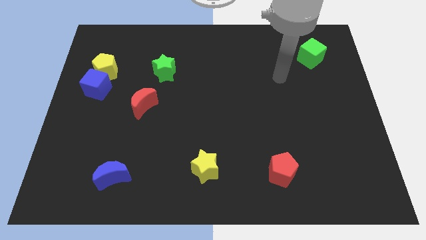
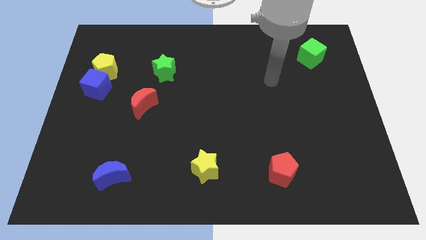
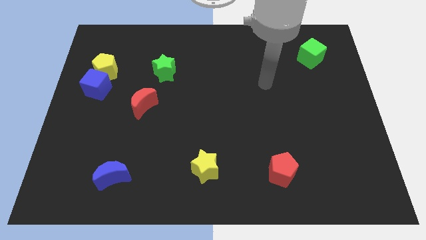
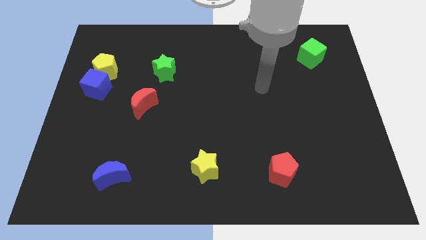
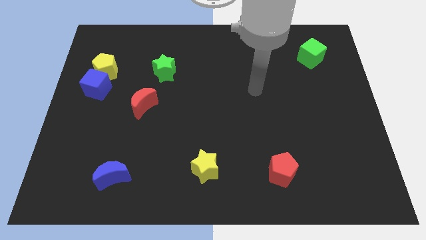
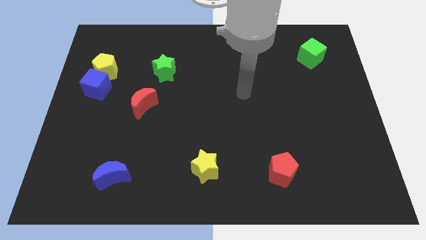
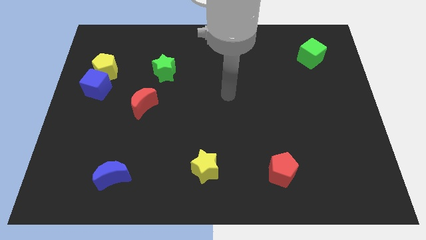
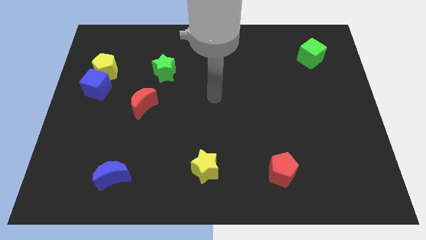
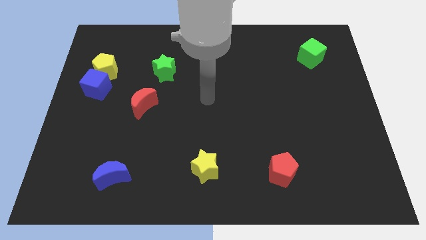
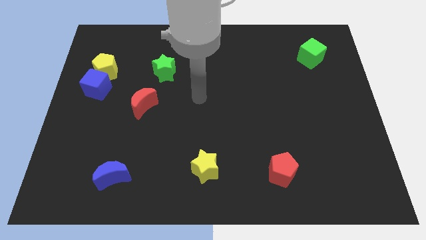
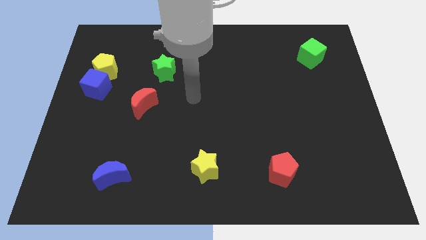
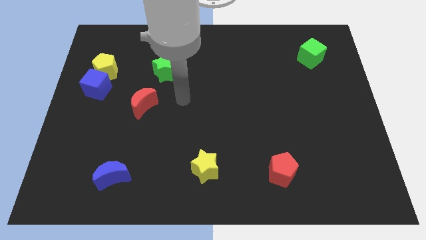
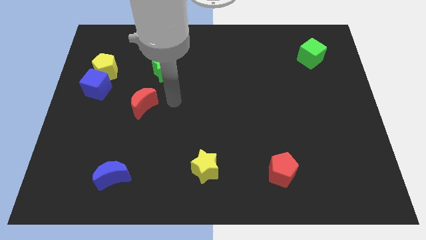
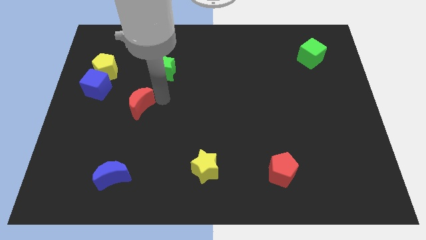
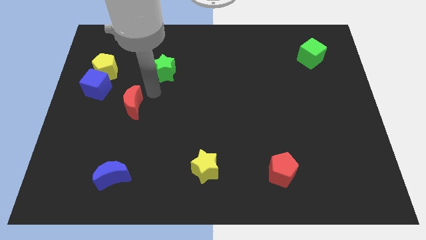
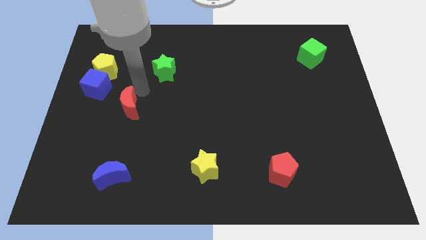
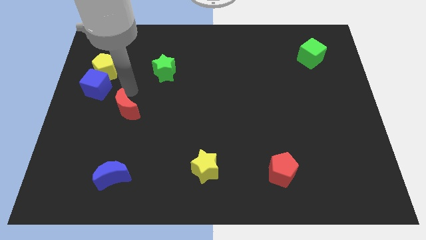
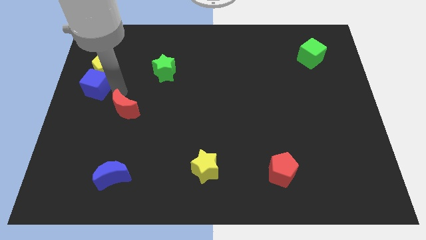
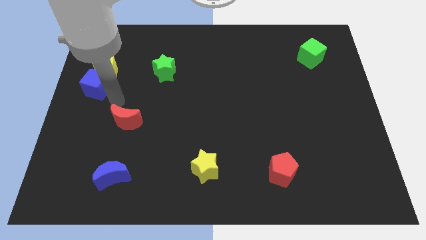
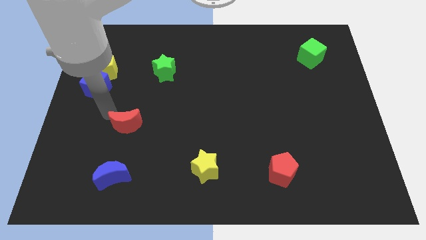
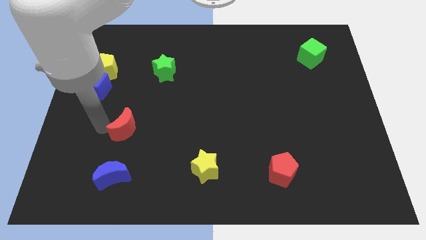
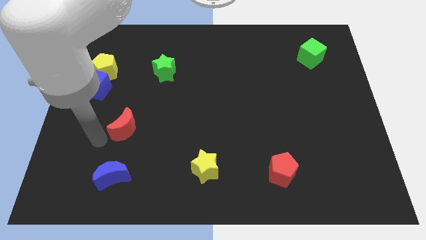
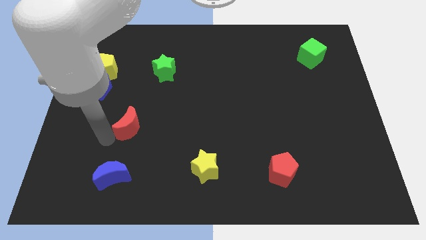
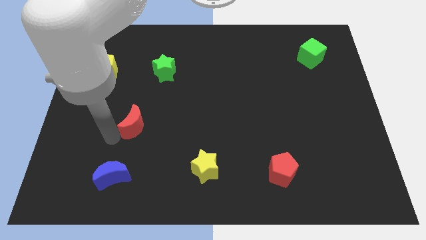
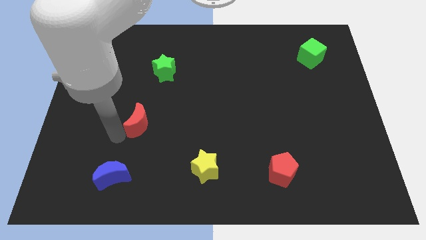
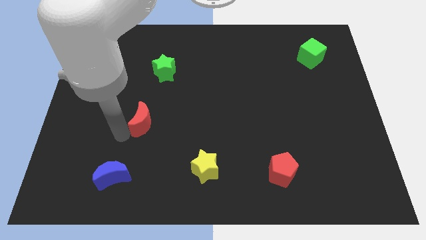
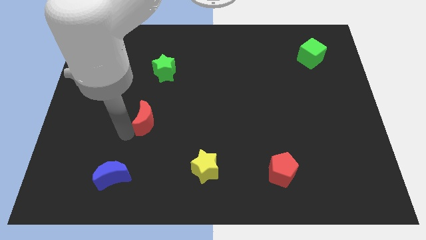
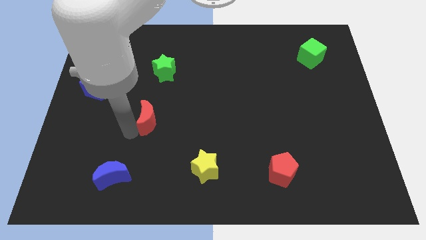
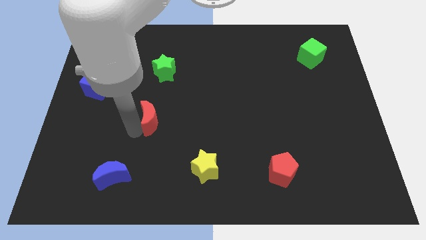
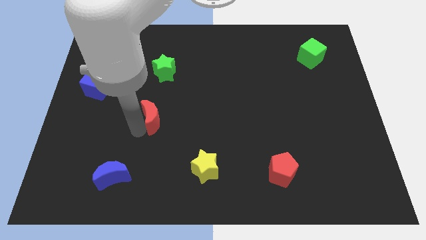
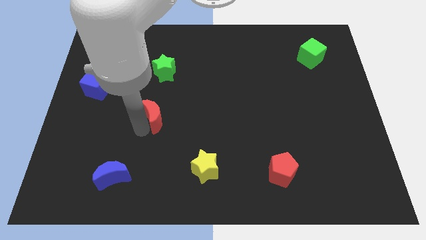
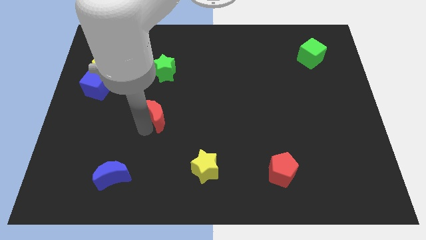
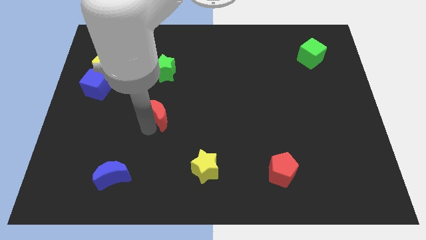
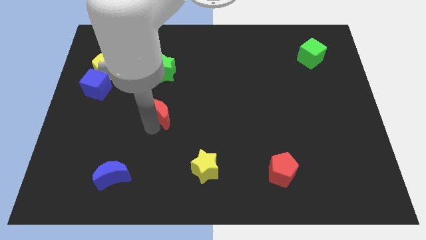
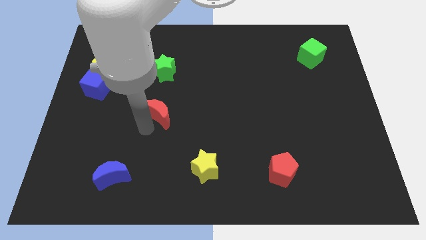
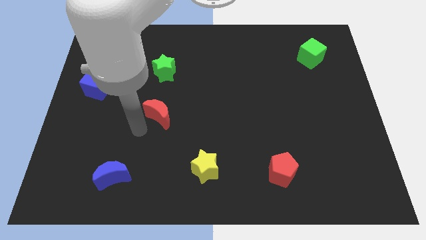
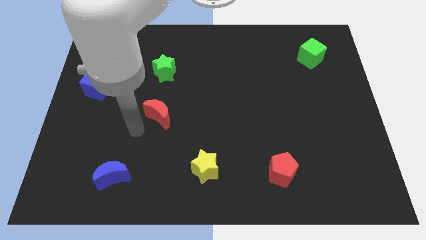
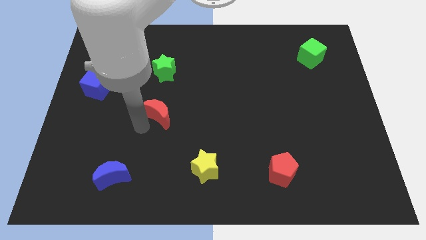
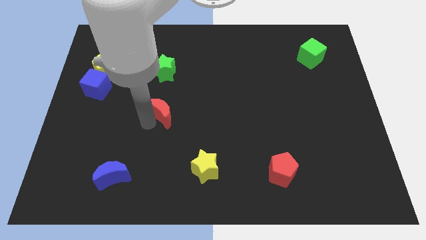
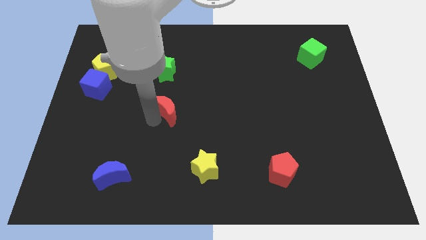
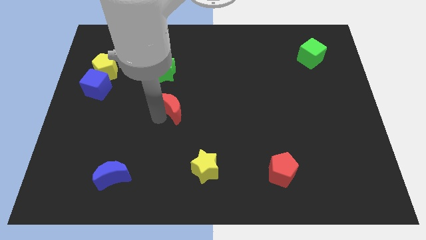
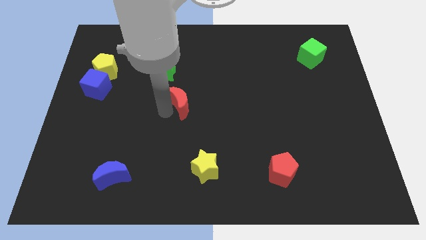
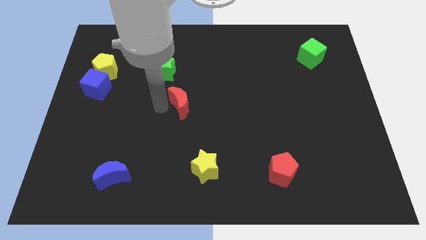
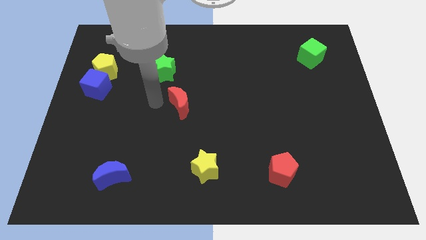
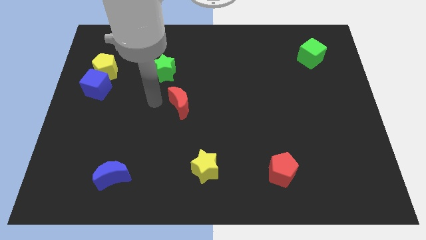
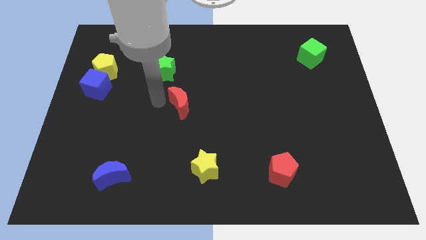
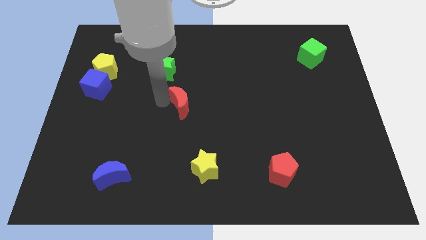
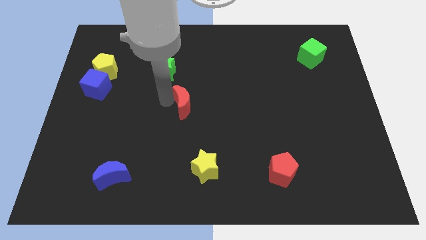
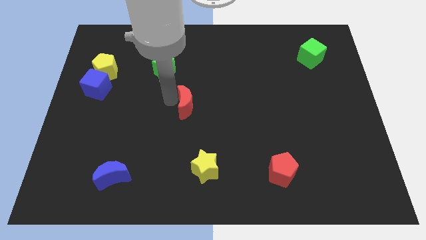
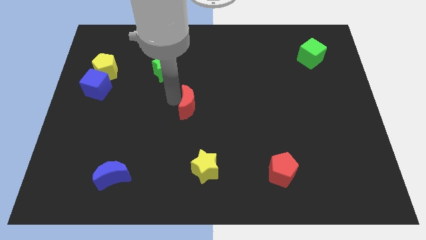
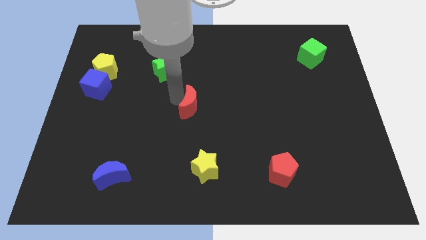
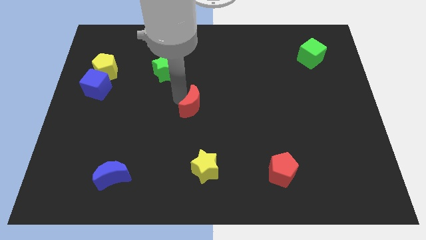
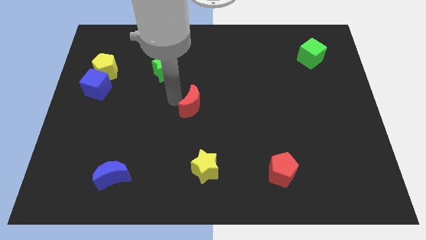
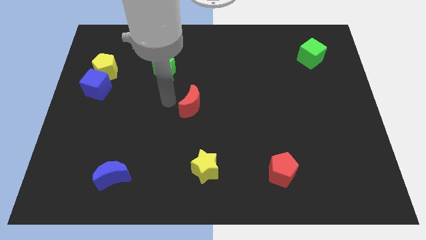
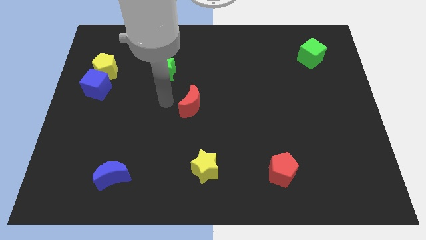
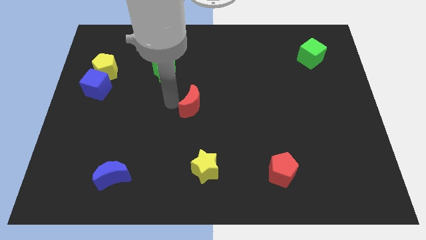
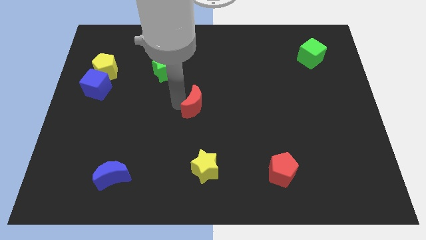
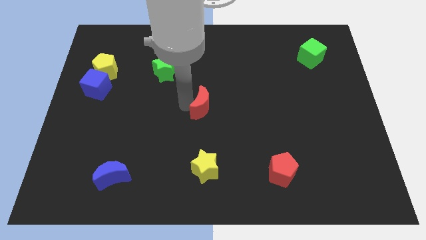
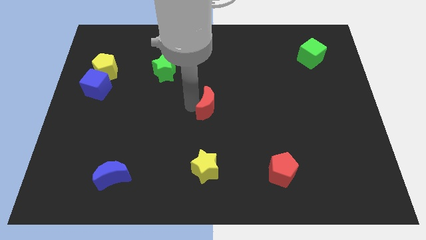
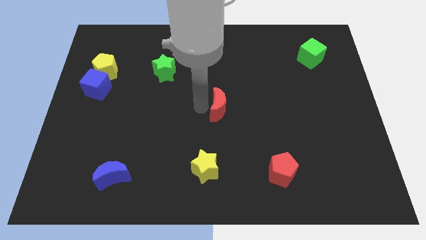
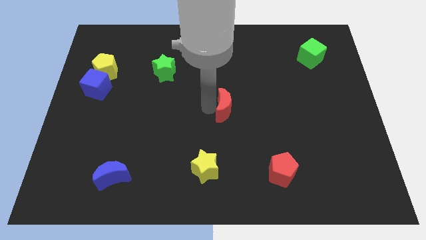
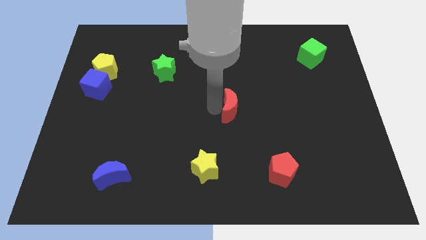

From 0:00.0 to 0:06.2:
push the red moon right

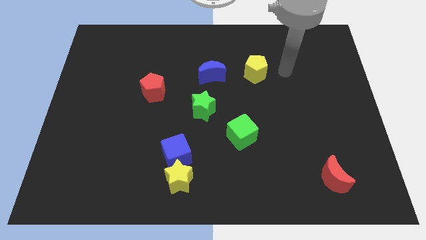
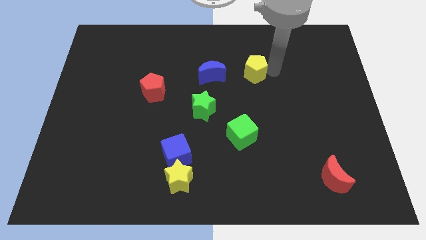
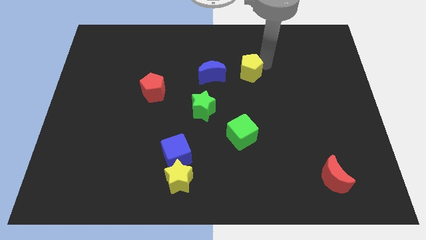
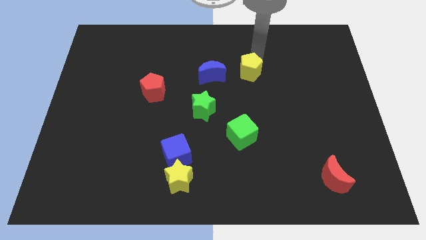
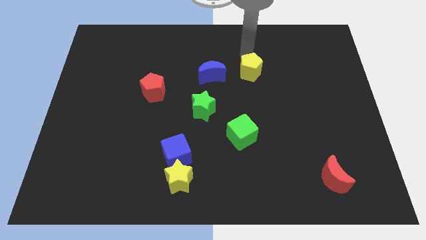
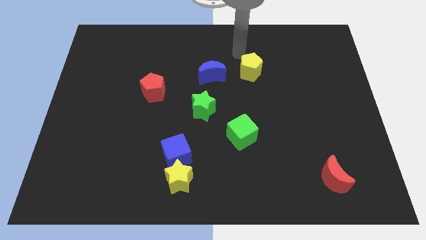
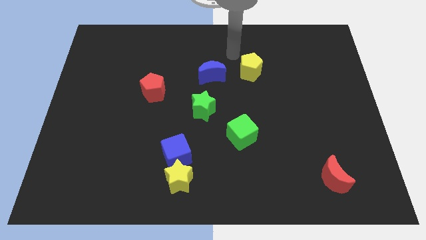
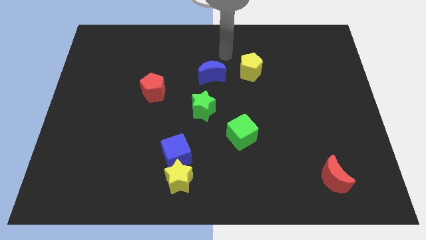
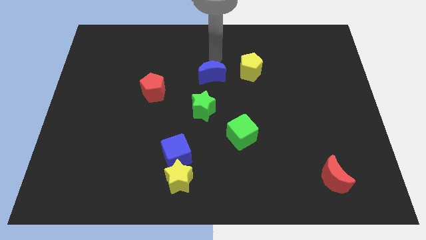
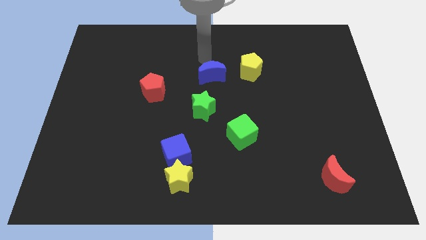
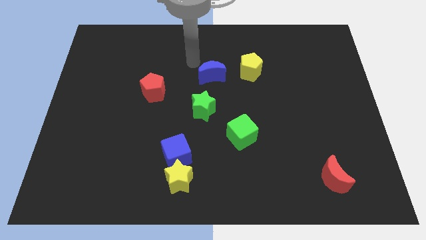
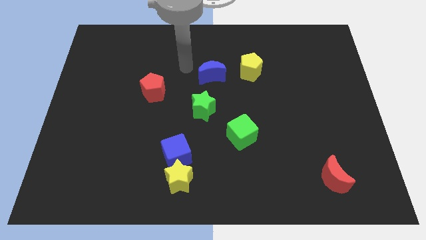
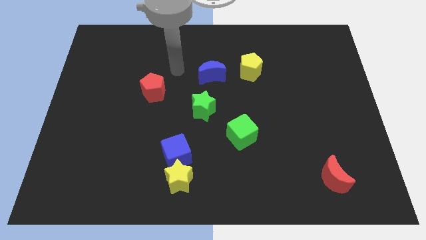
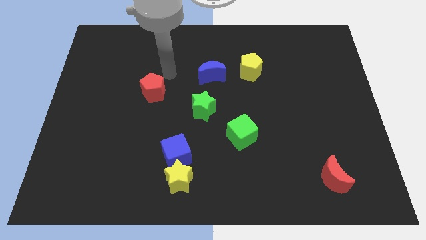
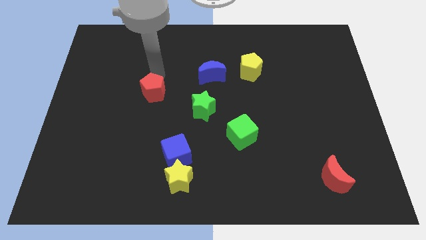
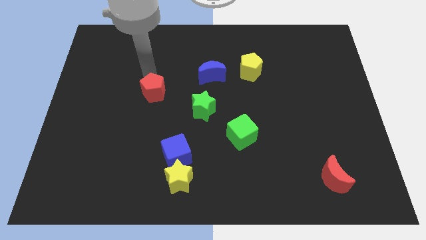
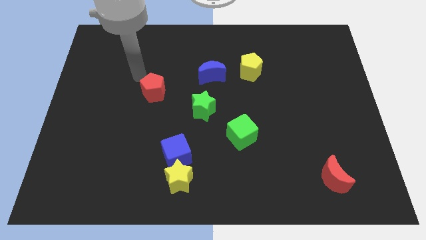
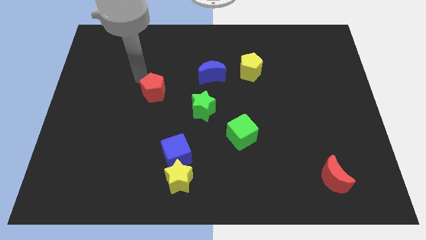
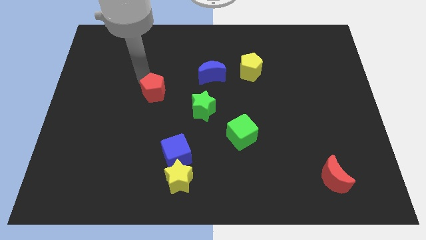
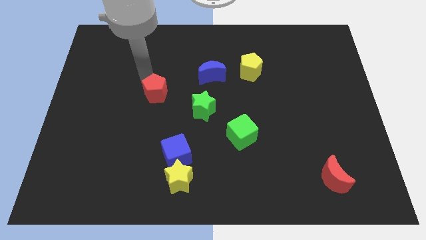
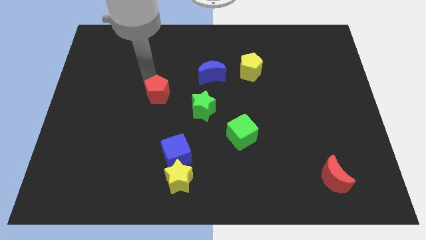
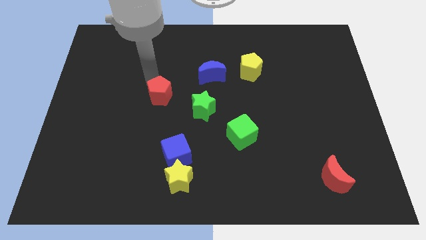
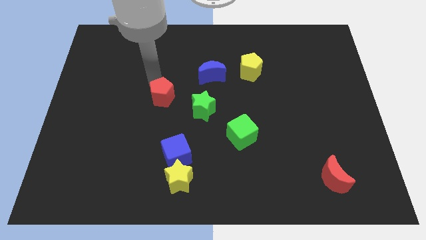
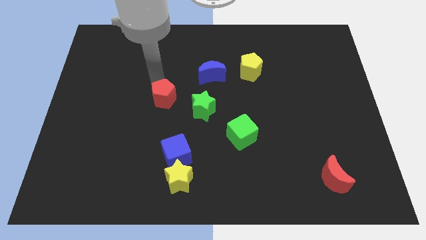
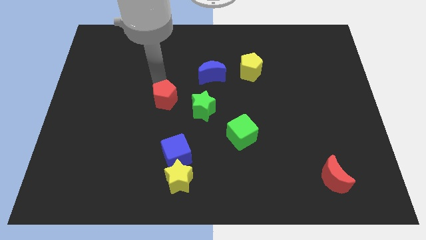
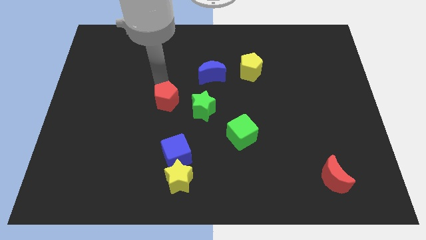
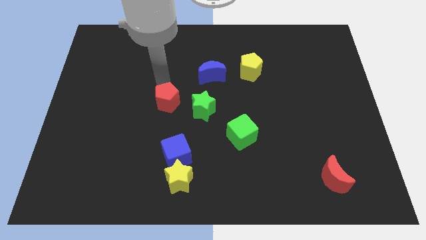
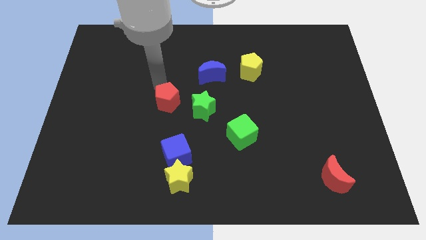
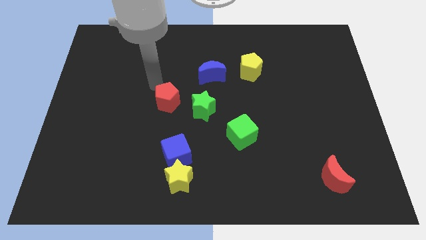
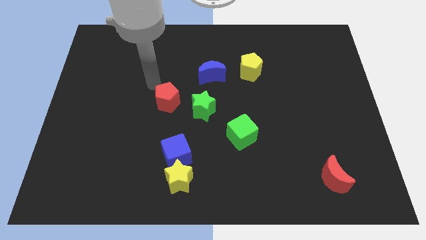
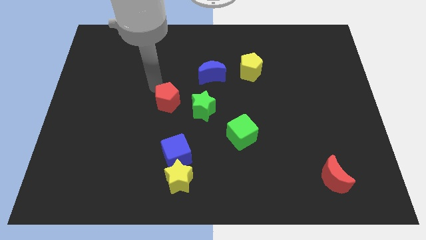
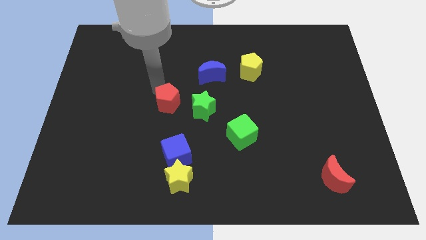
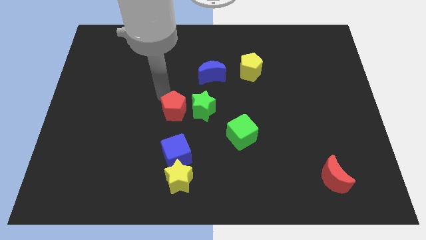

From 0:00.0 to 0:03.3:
push the red pentagon a little bit down and right diagonally
